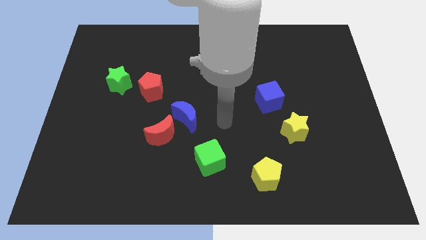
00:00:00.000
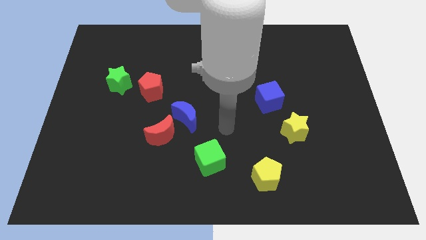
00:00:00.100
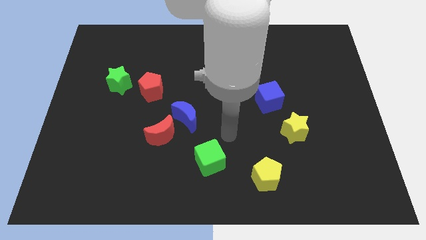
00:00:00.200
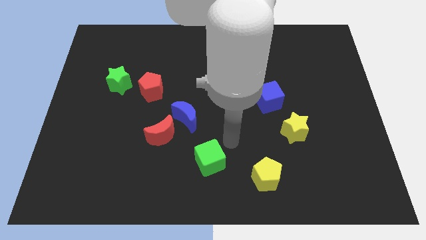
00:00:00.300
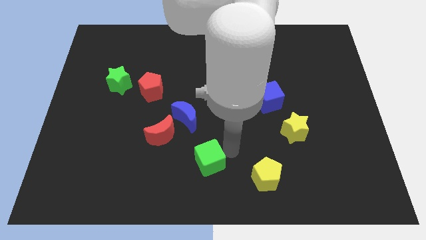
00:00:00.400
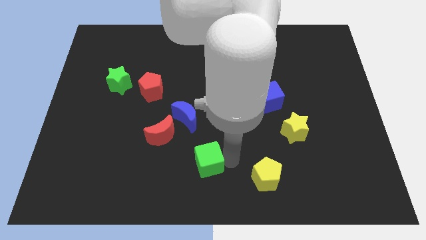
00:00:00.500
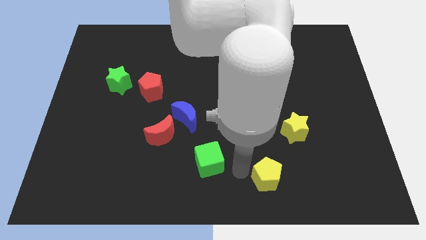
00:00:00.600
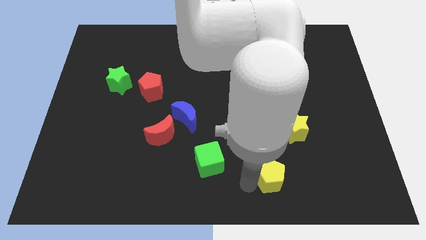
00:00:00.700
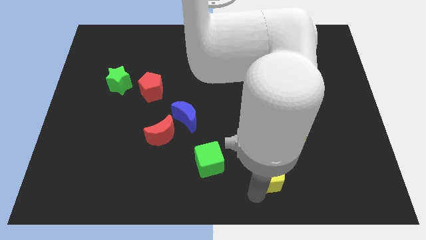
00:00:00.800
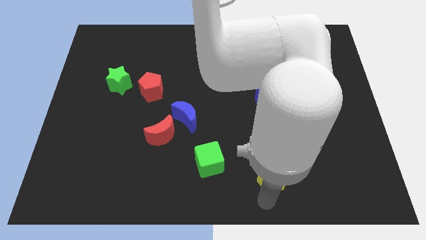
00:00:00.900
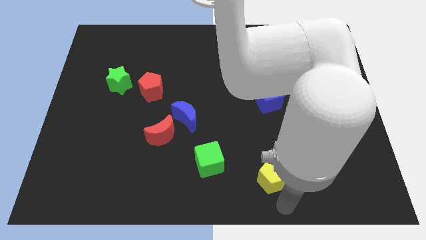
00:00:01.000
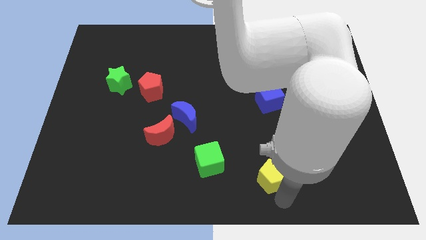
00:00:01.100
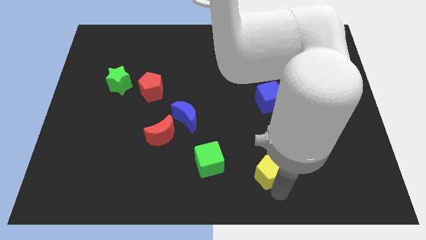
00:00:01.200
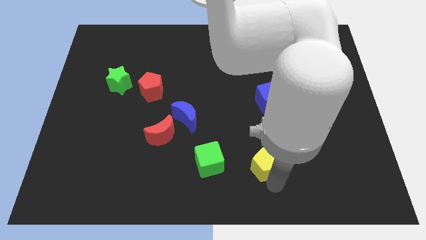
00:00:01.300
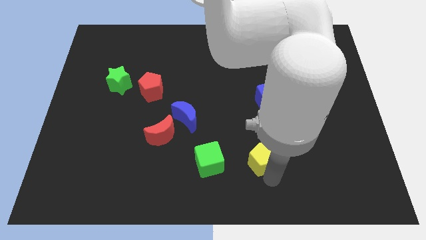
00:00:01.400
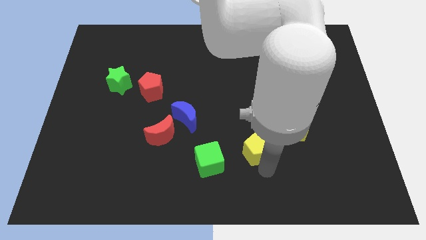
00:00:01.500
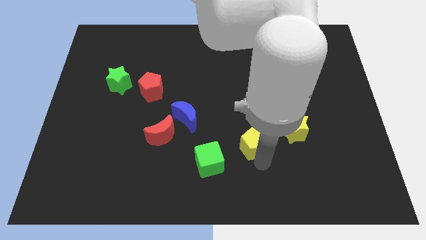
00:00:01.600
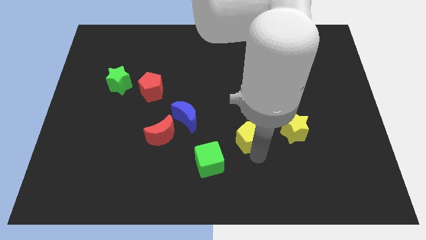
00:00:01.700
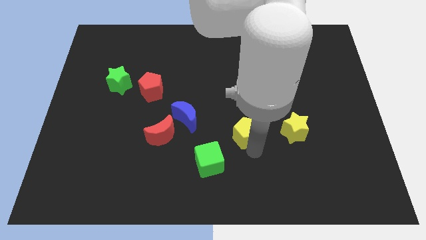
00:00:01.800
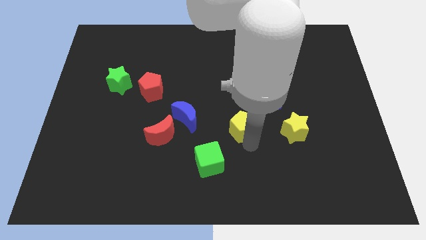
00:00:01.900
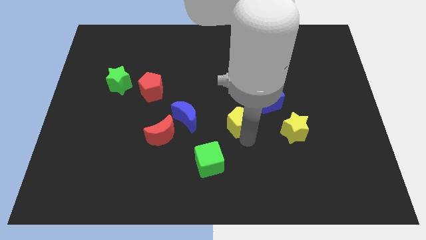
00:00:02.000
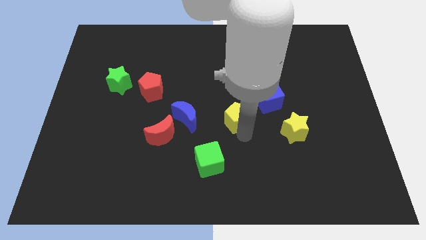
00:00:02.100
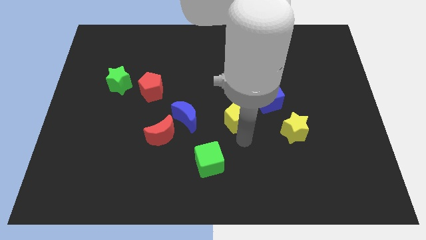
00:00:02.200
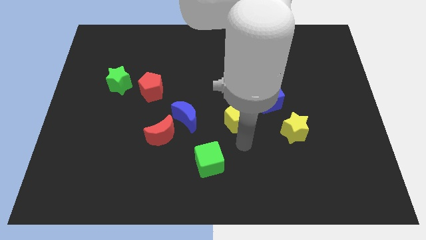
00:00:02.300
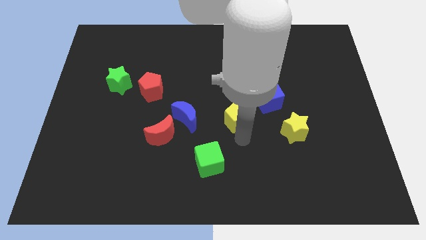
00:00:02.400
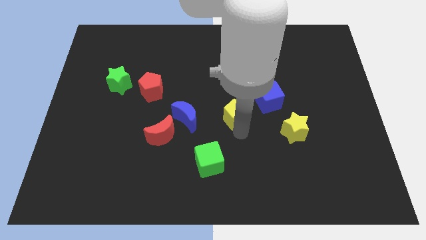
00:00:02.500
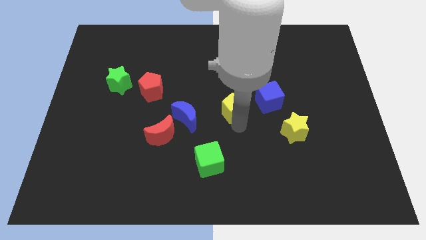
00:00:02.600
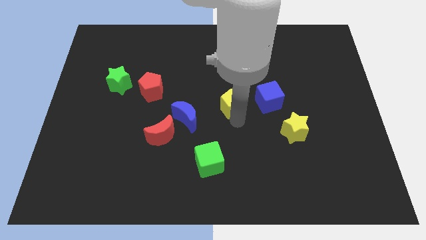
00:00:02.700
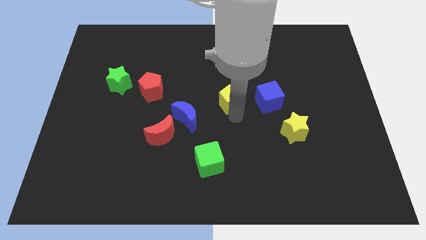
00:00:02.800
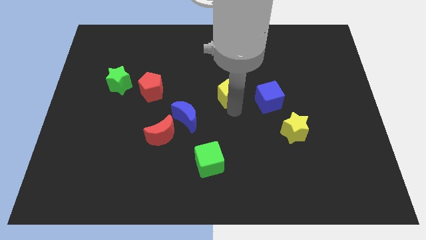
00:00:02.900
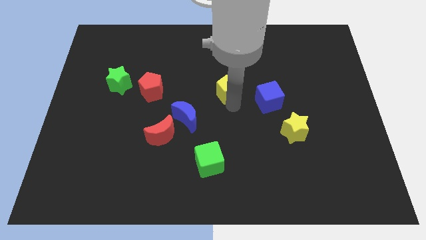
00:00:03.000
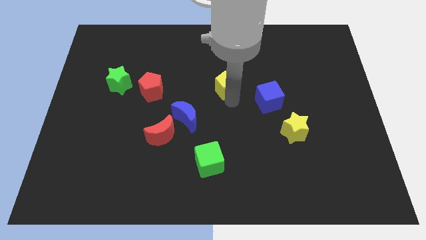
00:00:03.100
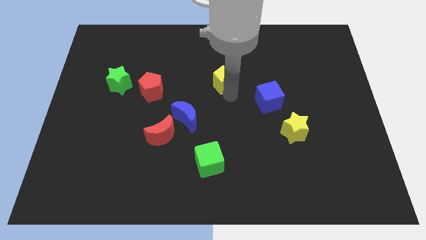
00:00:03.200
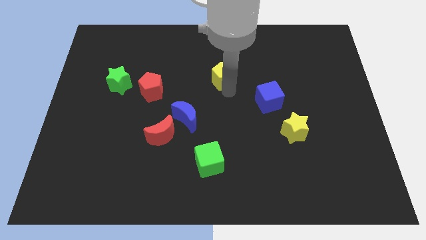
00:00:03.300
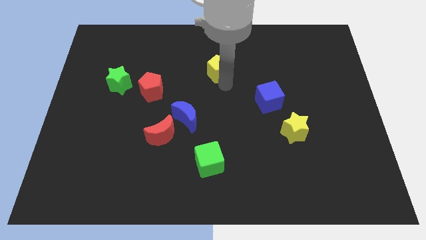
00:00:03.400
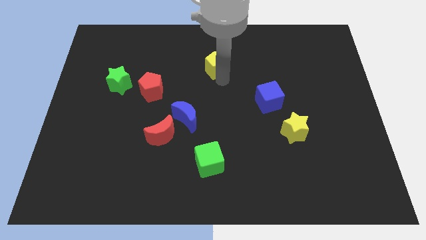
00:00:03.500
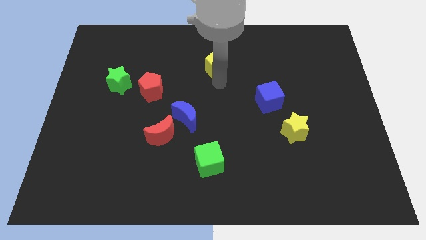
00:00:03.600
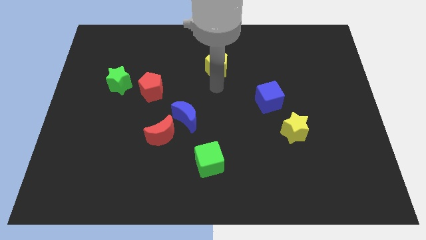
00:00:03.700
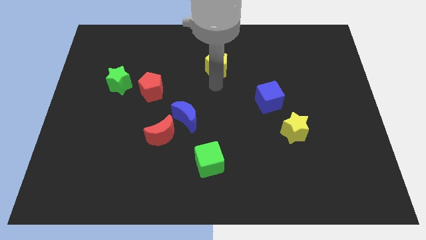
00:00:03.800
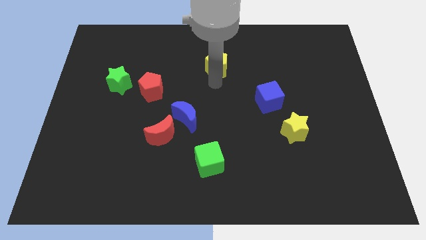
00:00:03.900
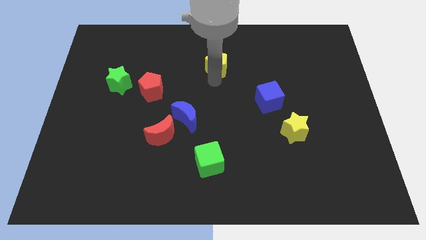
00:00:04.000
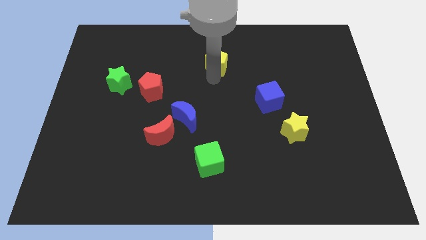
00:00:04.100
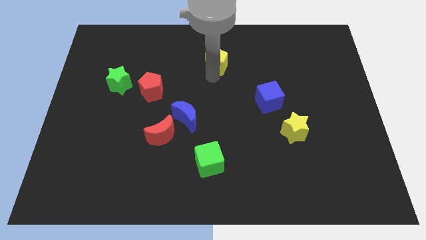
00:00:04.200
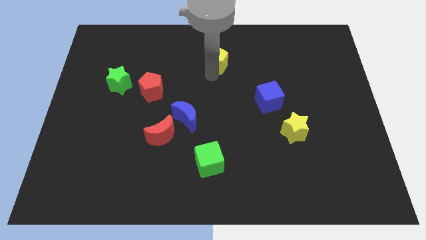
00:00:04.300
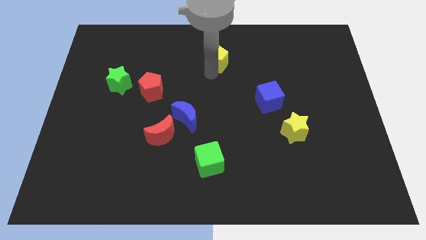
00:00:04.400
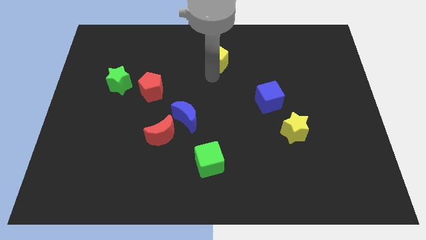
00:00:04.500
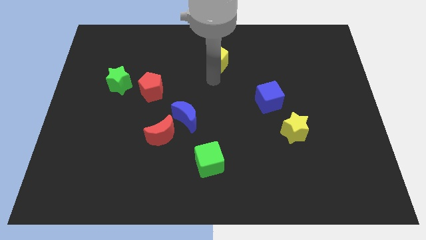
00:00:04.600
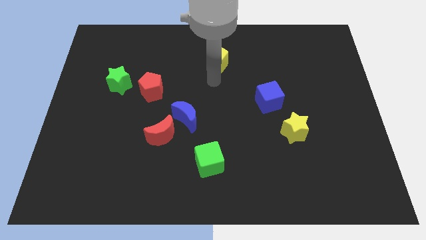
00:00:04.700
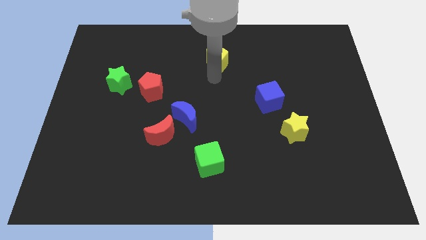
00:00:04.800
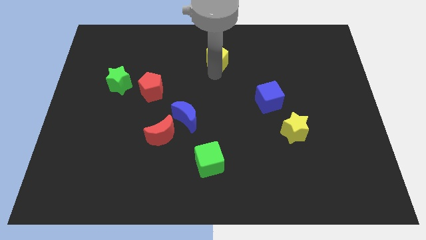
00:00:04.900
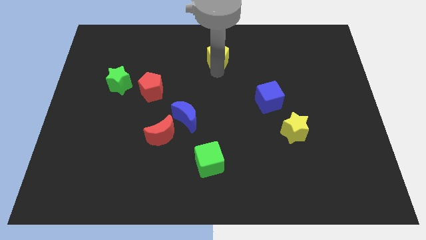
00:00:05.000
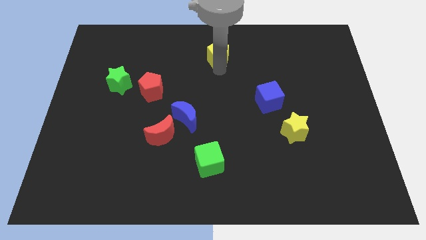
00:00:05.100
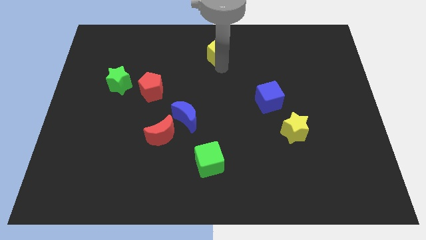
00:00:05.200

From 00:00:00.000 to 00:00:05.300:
push the yellow pentagon to the top

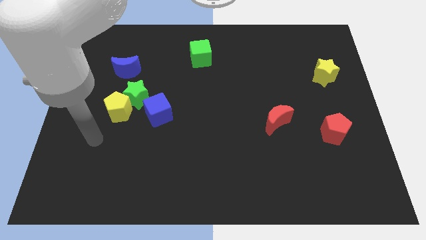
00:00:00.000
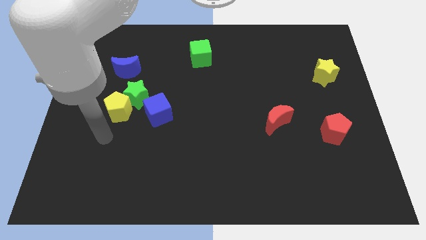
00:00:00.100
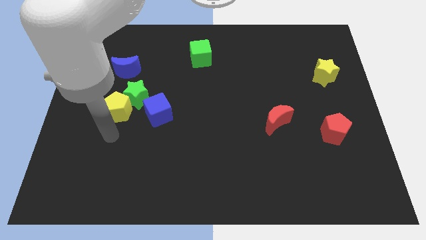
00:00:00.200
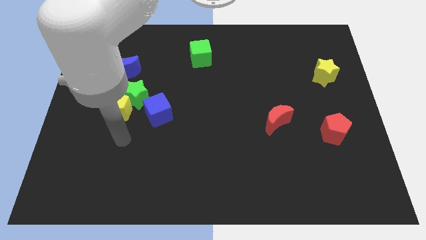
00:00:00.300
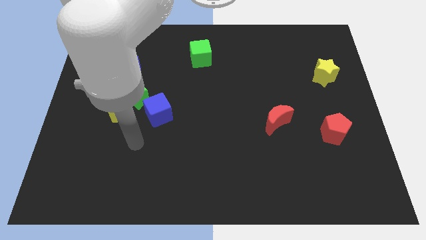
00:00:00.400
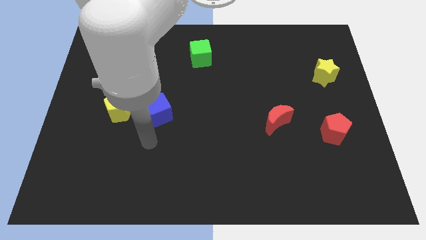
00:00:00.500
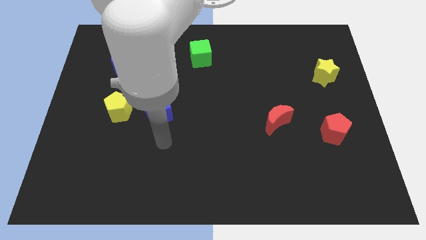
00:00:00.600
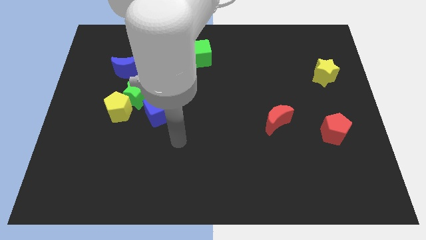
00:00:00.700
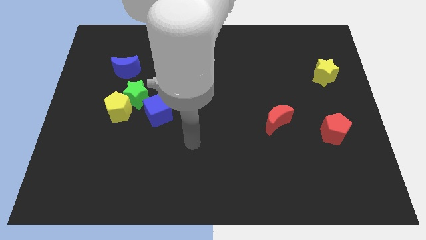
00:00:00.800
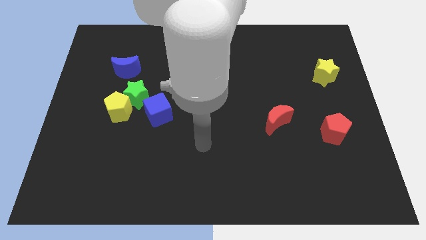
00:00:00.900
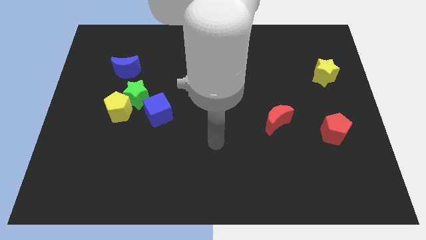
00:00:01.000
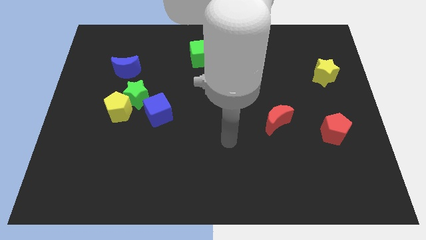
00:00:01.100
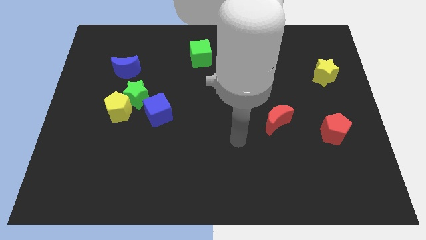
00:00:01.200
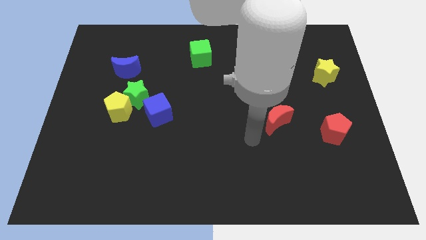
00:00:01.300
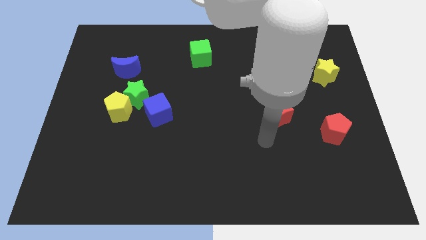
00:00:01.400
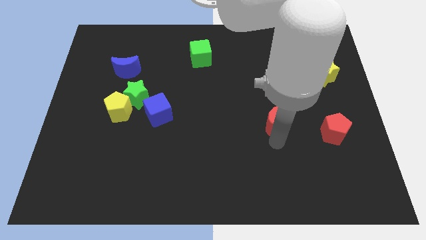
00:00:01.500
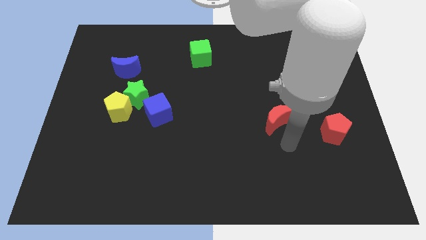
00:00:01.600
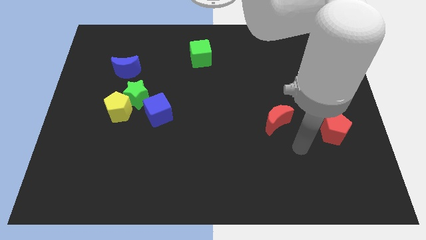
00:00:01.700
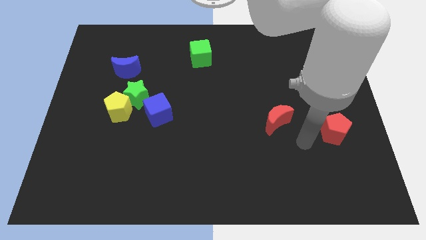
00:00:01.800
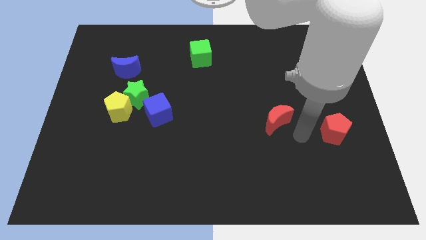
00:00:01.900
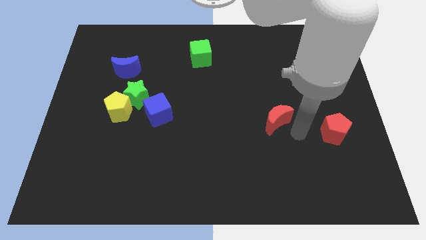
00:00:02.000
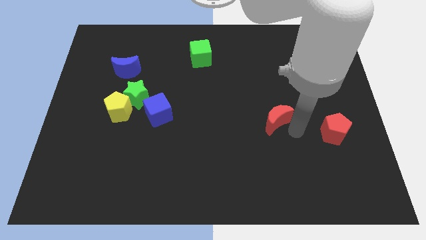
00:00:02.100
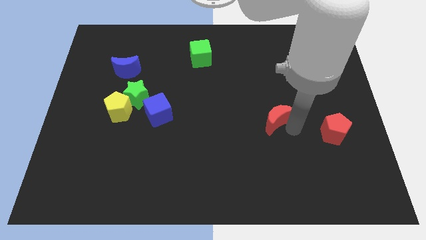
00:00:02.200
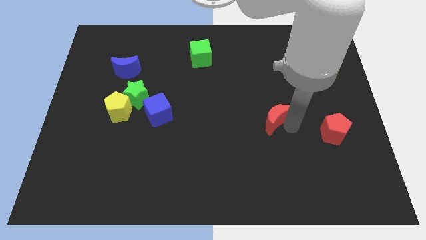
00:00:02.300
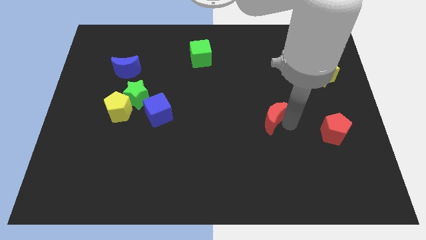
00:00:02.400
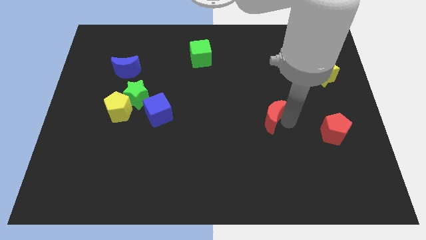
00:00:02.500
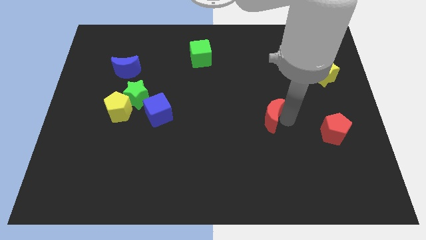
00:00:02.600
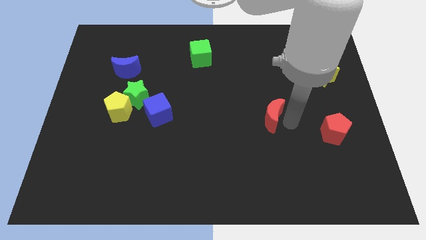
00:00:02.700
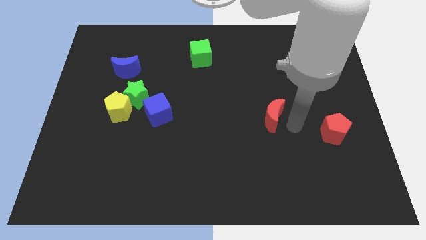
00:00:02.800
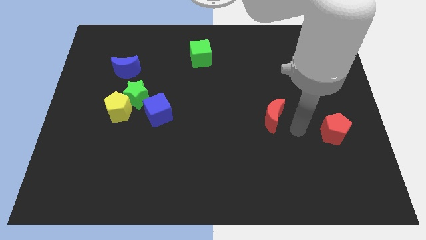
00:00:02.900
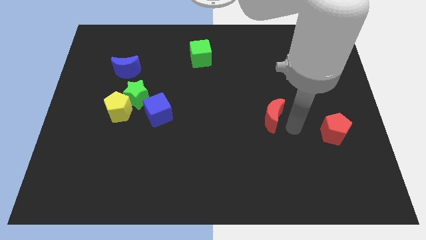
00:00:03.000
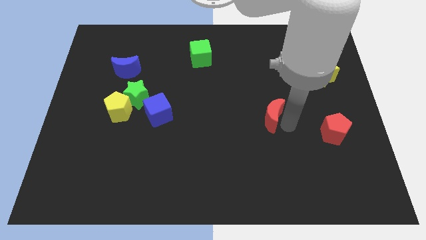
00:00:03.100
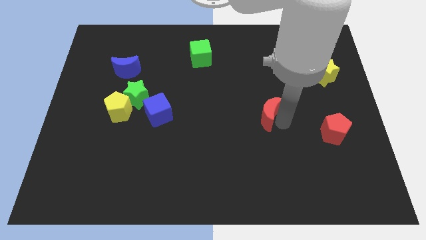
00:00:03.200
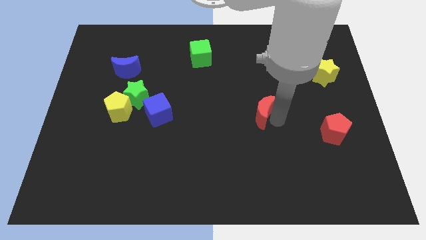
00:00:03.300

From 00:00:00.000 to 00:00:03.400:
move the red moon to the middle
